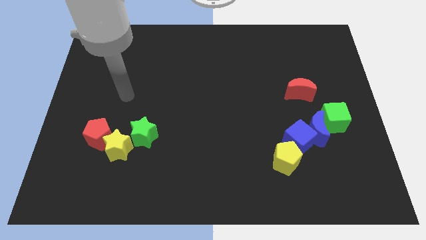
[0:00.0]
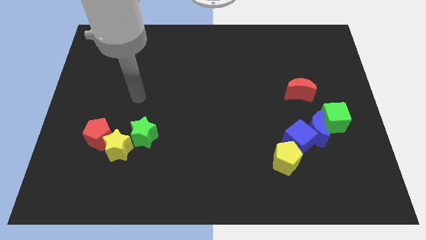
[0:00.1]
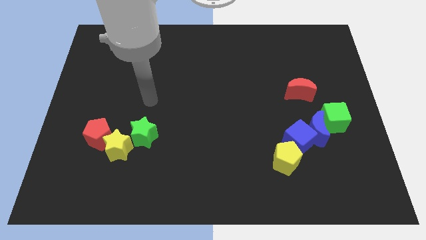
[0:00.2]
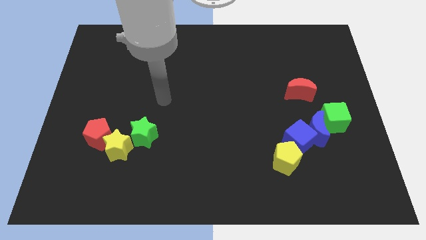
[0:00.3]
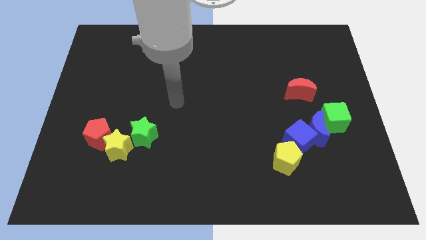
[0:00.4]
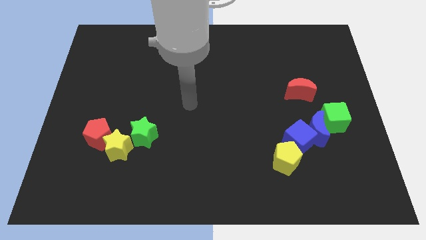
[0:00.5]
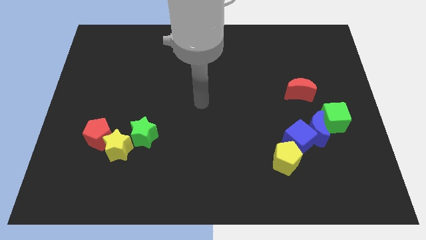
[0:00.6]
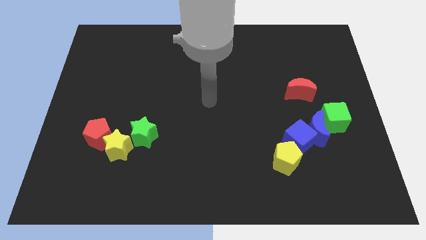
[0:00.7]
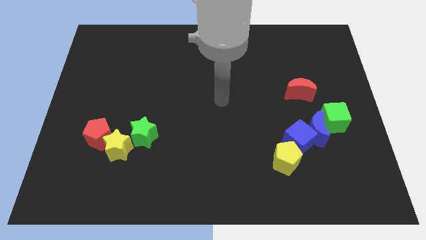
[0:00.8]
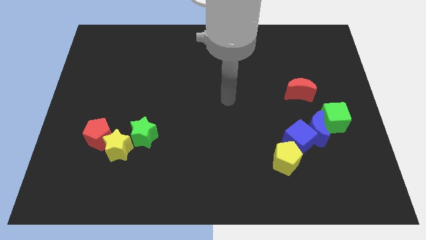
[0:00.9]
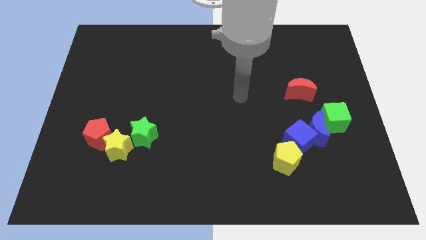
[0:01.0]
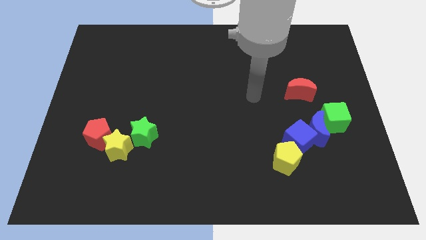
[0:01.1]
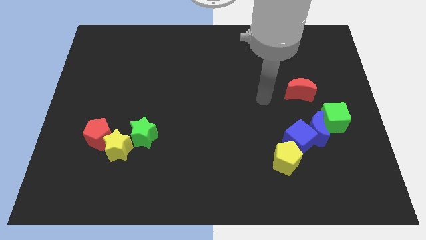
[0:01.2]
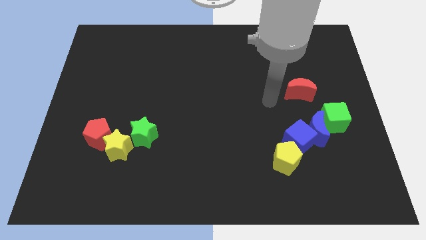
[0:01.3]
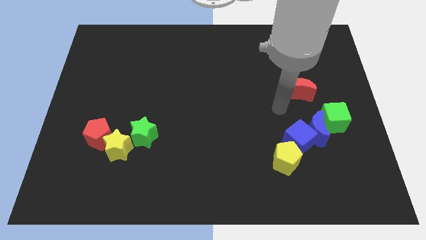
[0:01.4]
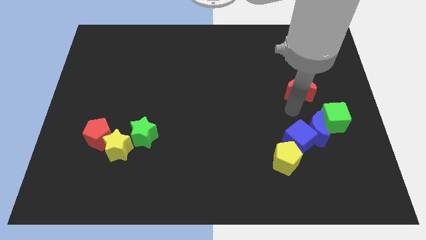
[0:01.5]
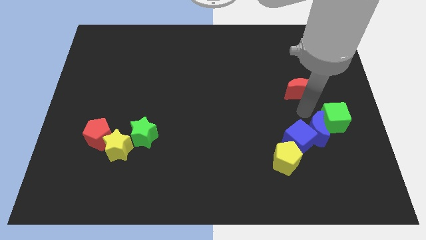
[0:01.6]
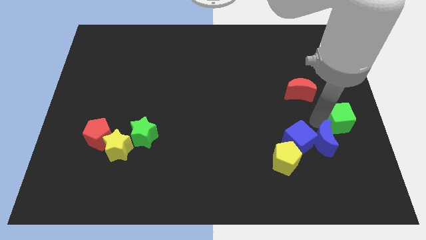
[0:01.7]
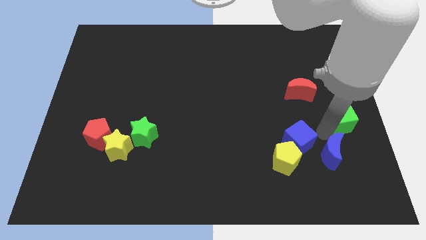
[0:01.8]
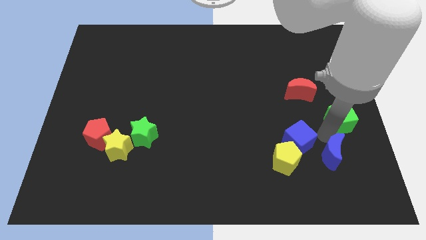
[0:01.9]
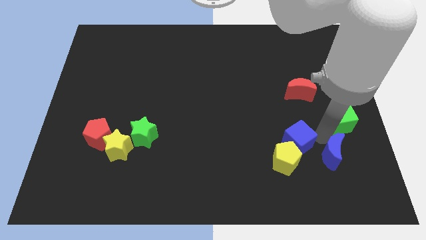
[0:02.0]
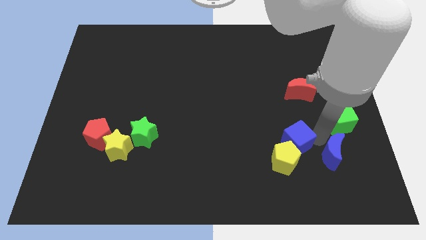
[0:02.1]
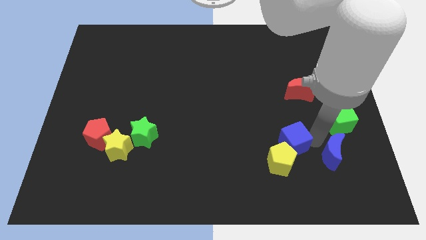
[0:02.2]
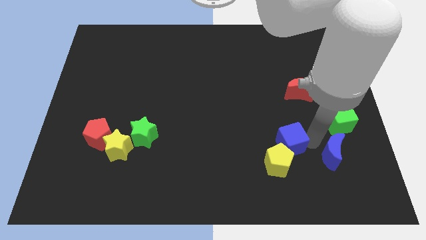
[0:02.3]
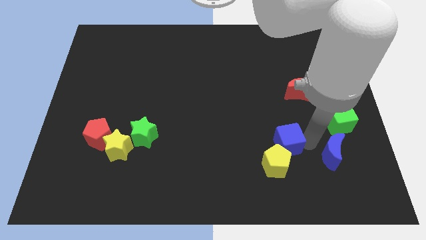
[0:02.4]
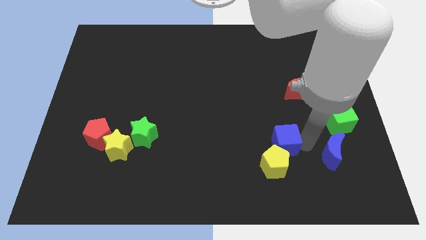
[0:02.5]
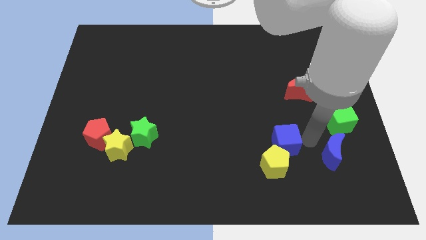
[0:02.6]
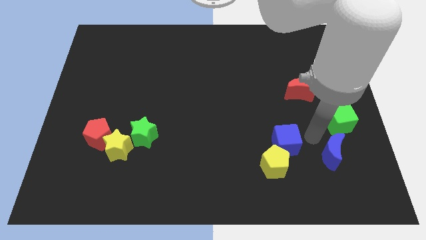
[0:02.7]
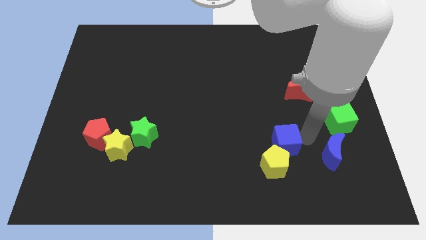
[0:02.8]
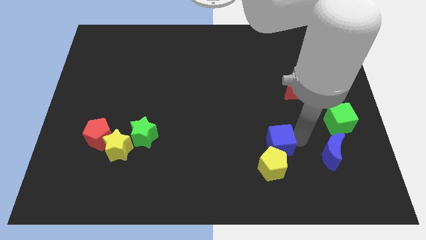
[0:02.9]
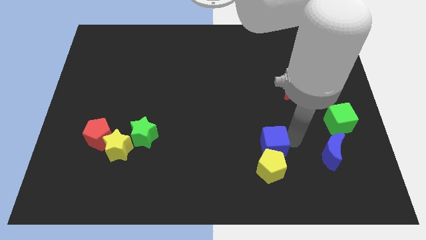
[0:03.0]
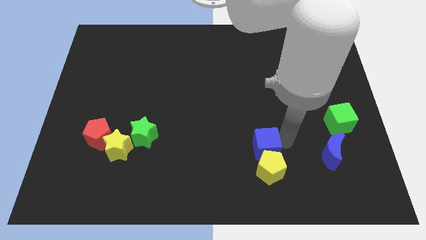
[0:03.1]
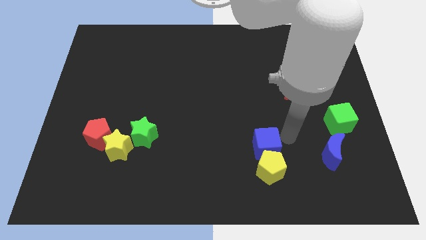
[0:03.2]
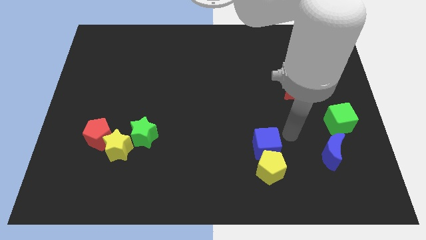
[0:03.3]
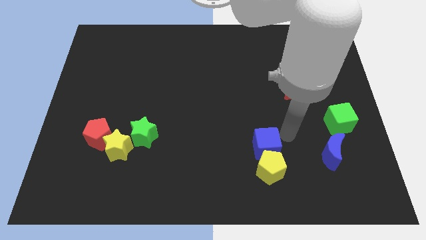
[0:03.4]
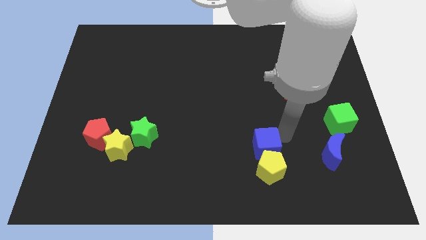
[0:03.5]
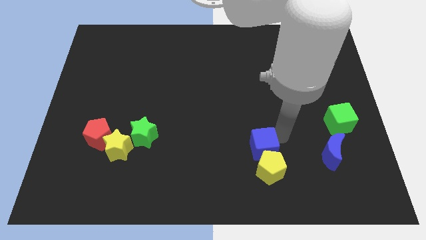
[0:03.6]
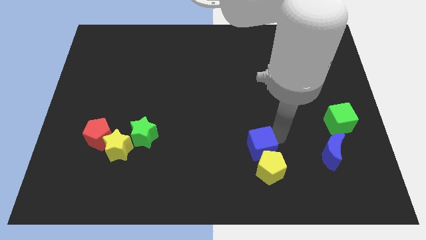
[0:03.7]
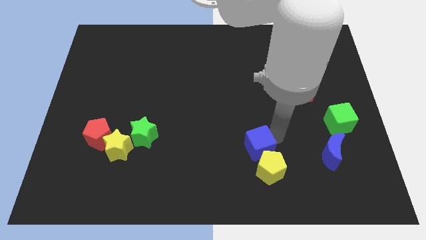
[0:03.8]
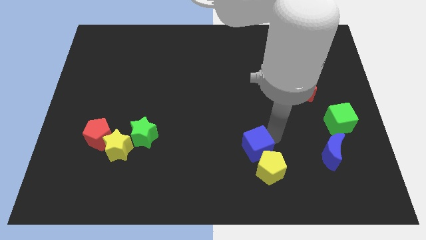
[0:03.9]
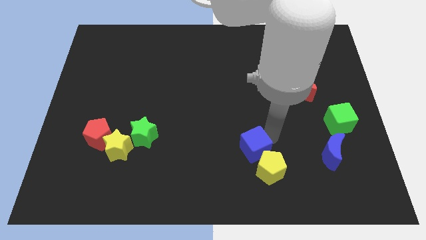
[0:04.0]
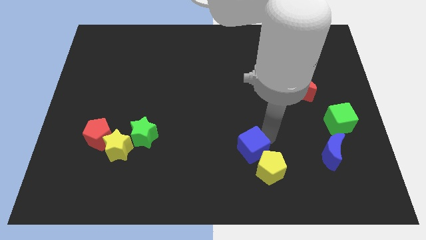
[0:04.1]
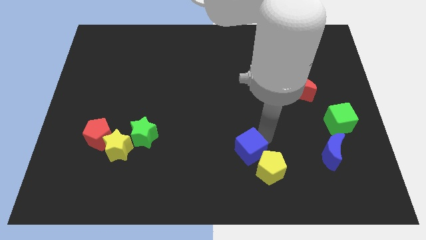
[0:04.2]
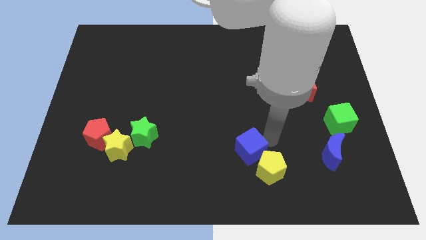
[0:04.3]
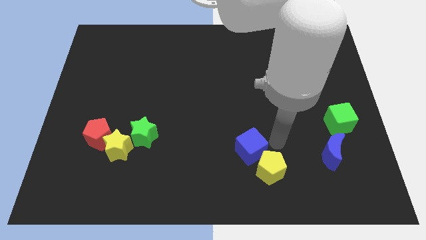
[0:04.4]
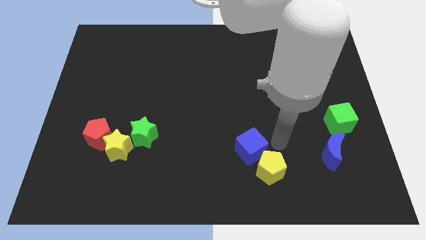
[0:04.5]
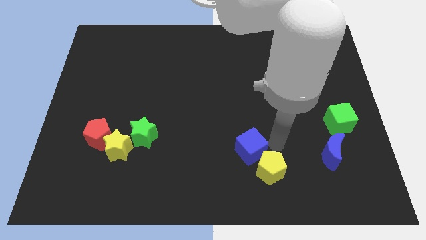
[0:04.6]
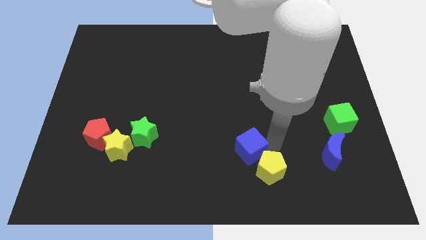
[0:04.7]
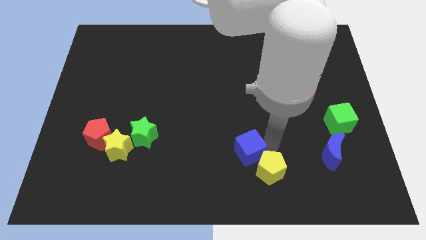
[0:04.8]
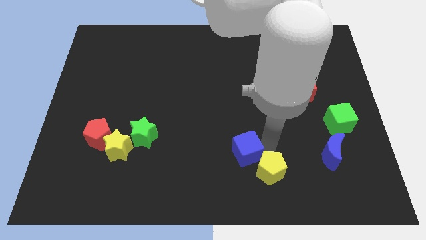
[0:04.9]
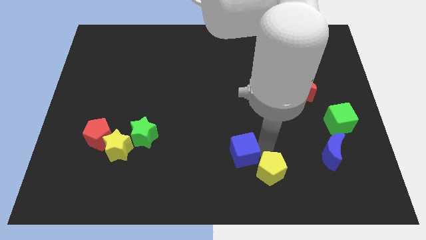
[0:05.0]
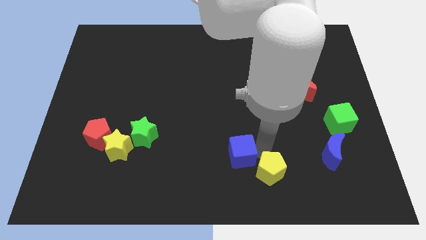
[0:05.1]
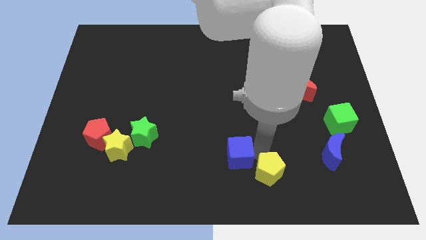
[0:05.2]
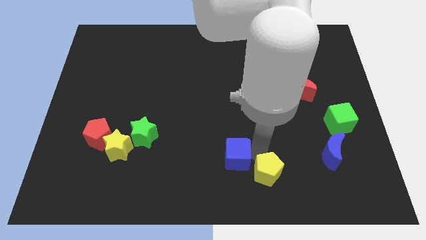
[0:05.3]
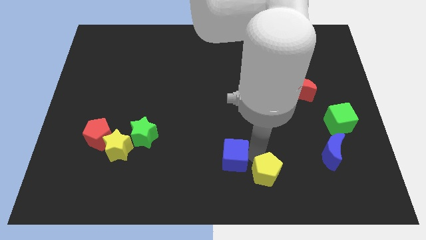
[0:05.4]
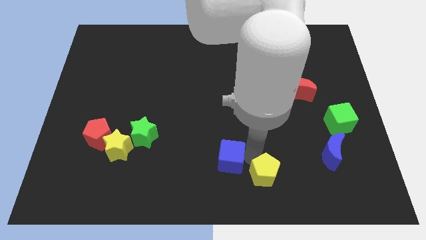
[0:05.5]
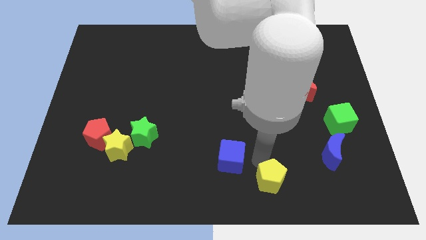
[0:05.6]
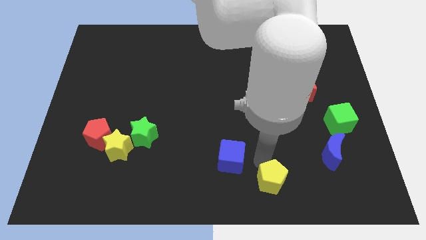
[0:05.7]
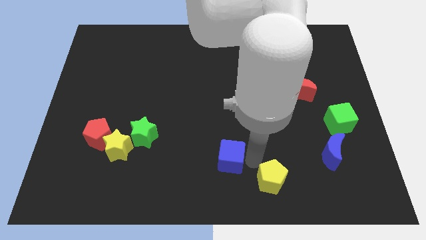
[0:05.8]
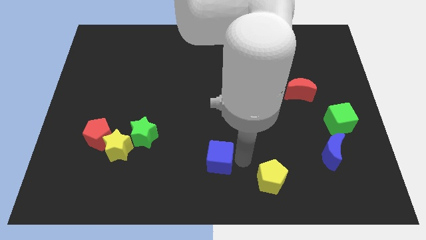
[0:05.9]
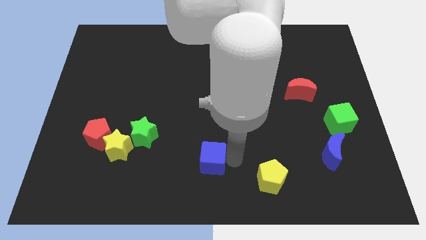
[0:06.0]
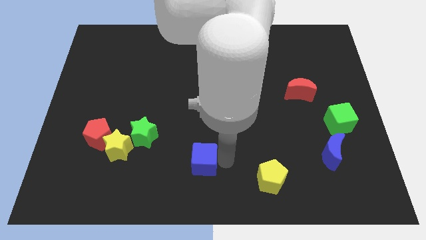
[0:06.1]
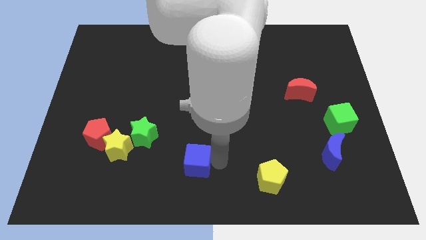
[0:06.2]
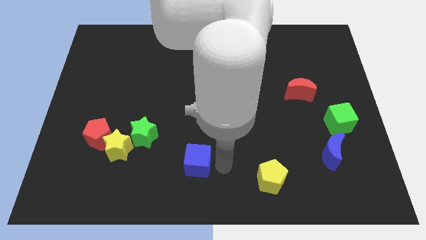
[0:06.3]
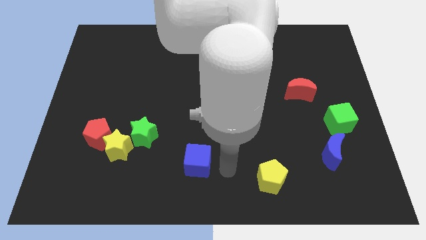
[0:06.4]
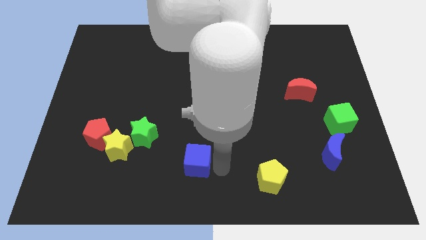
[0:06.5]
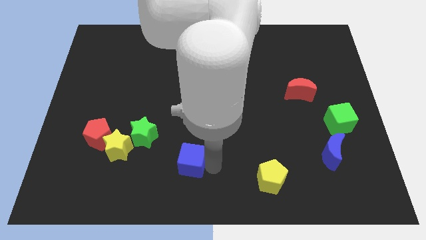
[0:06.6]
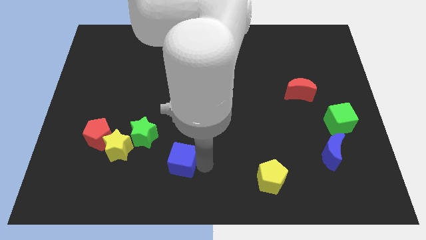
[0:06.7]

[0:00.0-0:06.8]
put the blue cube diagonally down and to the right of the green star

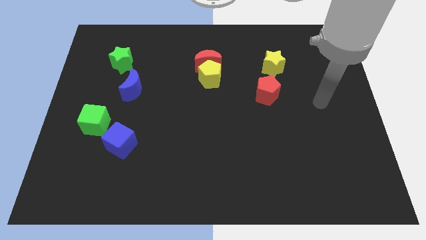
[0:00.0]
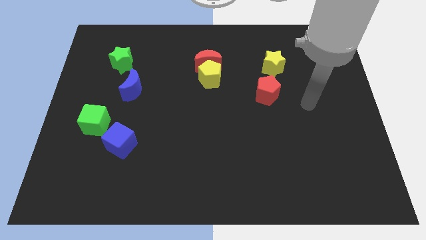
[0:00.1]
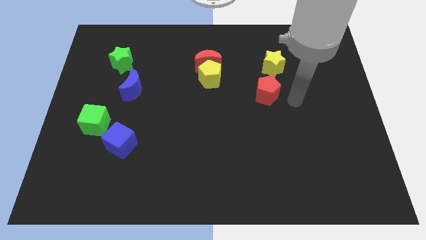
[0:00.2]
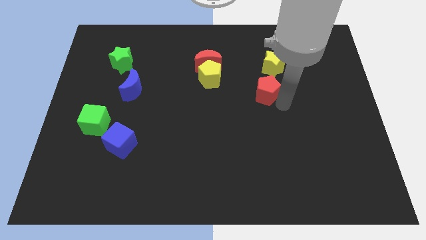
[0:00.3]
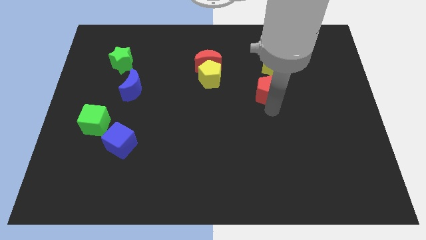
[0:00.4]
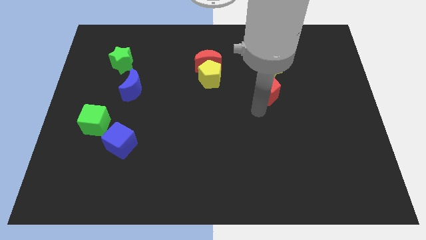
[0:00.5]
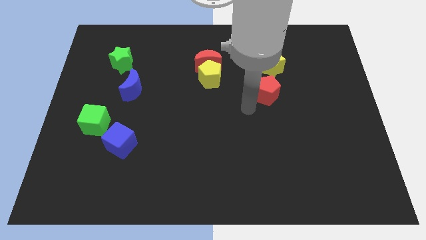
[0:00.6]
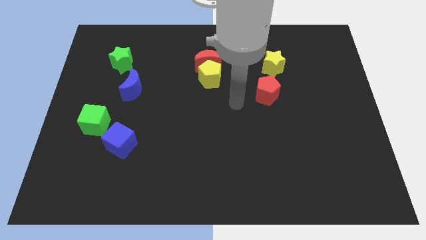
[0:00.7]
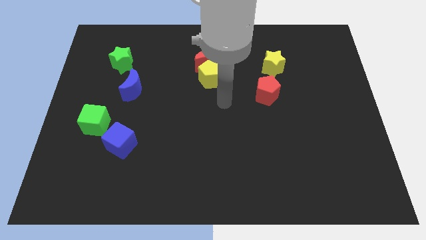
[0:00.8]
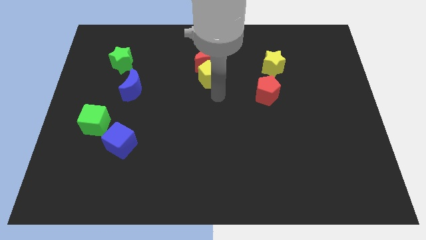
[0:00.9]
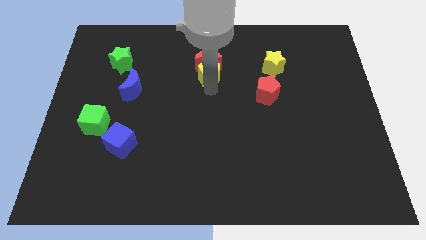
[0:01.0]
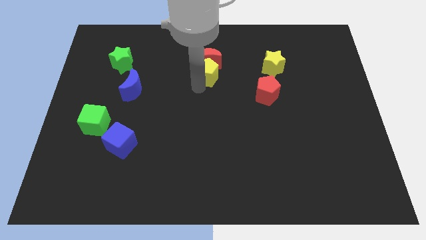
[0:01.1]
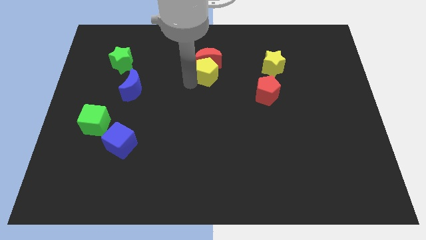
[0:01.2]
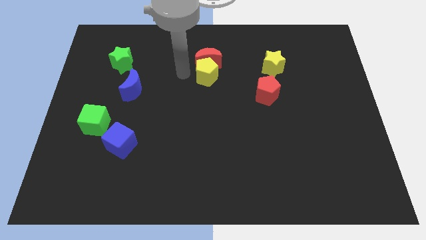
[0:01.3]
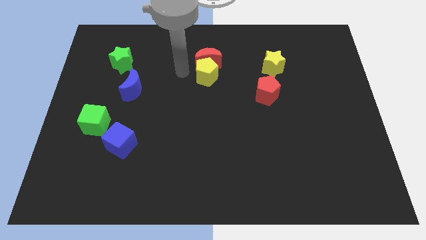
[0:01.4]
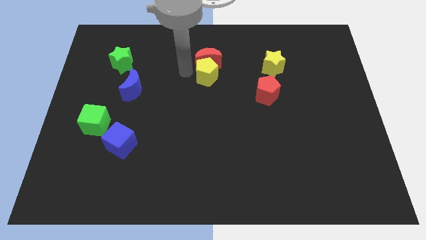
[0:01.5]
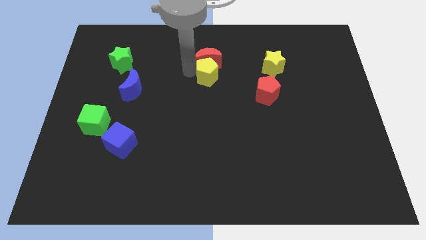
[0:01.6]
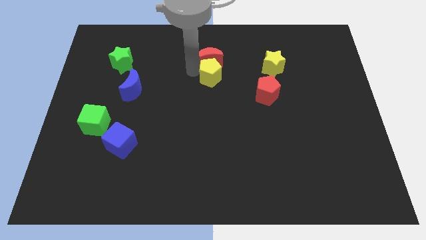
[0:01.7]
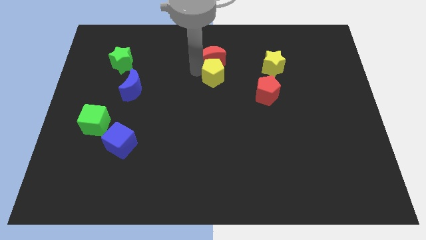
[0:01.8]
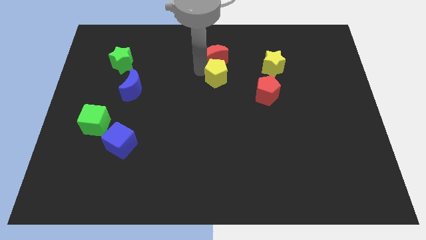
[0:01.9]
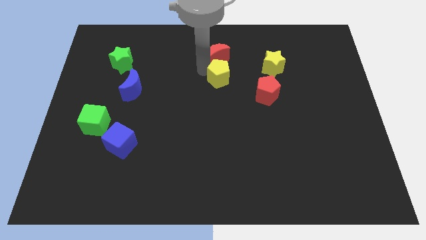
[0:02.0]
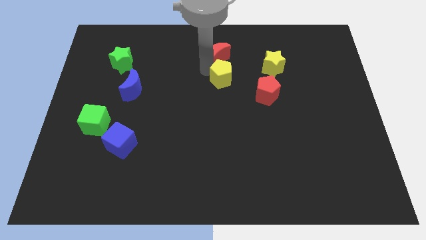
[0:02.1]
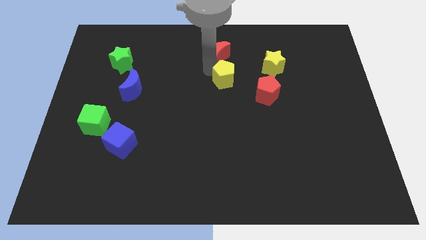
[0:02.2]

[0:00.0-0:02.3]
move the yellow pentagon to the top left side of the red pentagon
